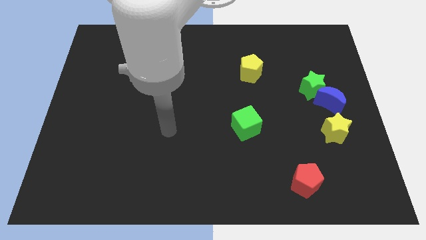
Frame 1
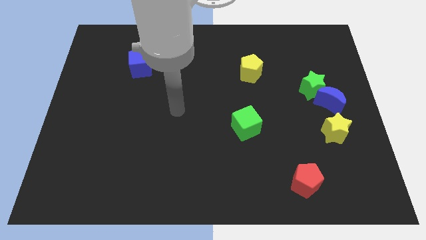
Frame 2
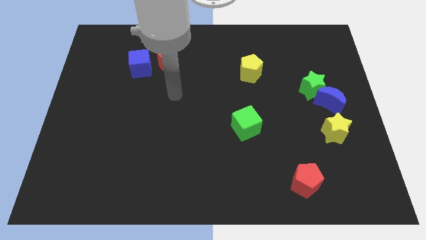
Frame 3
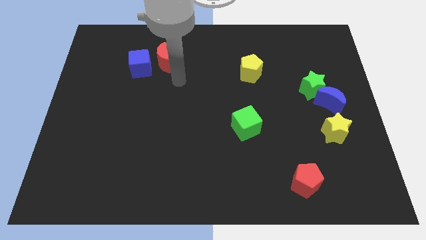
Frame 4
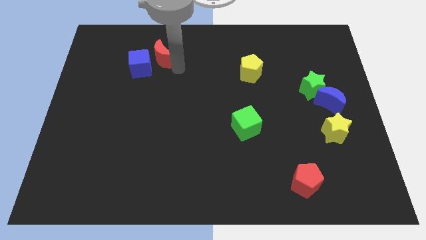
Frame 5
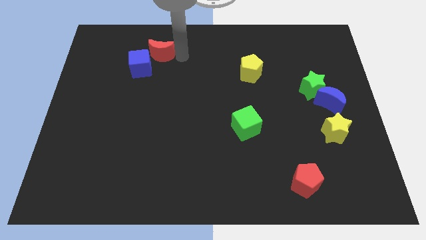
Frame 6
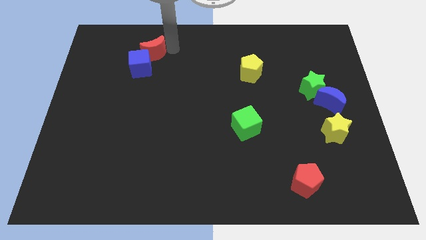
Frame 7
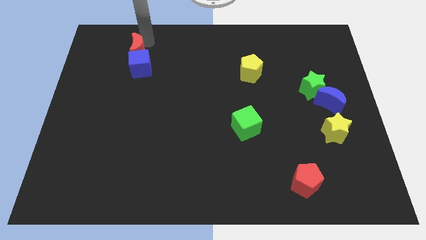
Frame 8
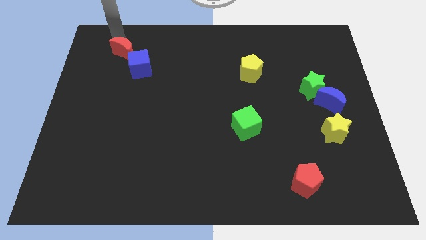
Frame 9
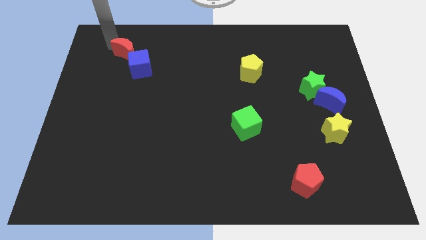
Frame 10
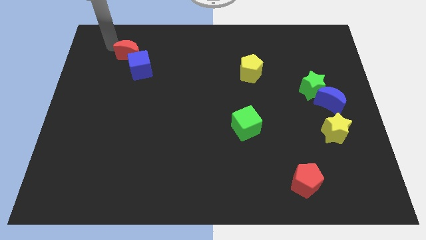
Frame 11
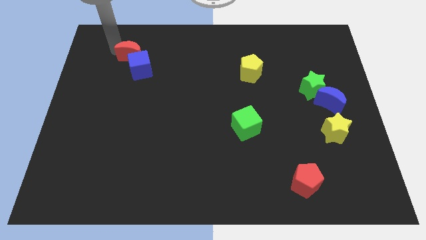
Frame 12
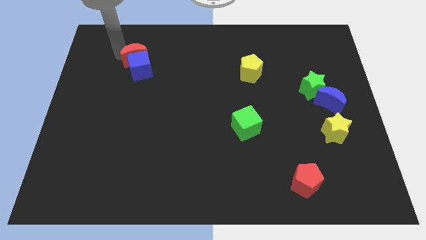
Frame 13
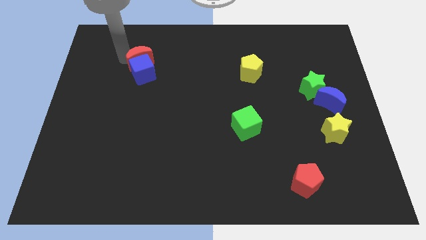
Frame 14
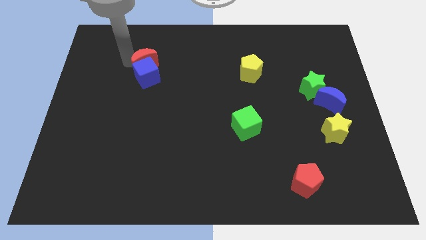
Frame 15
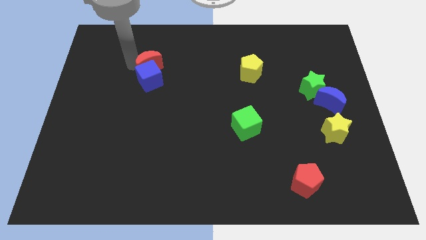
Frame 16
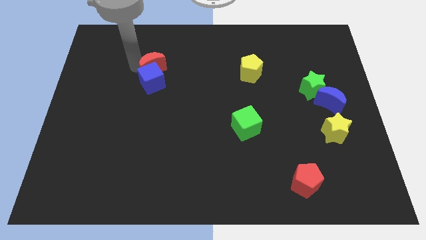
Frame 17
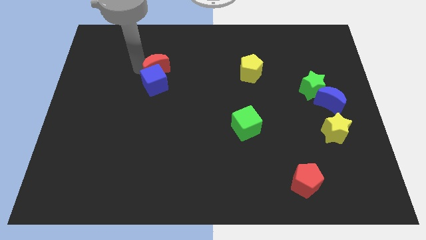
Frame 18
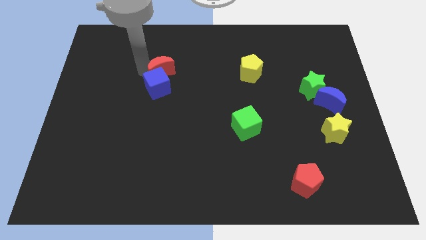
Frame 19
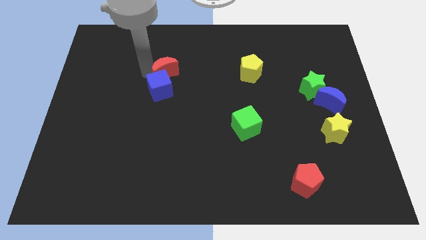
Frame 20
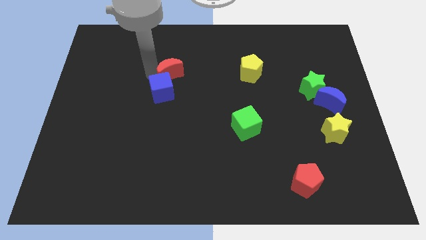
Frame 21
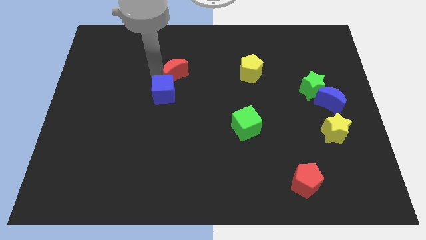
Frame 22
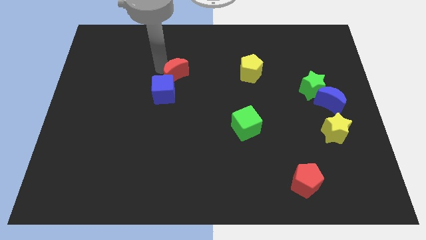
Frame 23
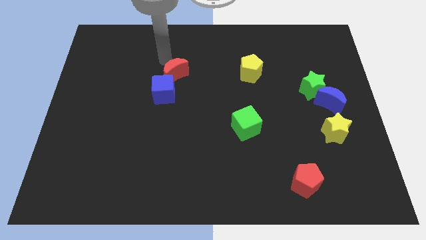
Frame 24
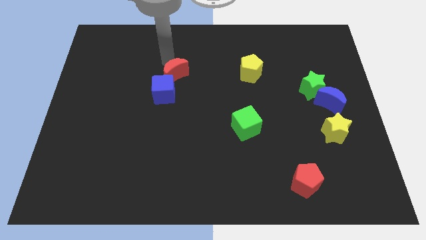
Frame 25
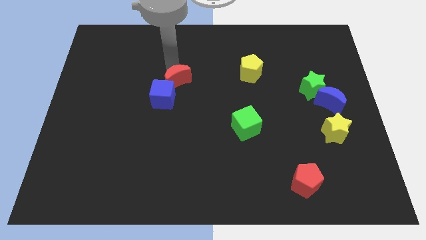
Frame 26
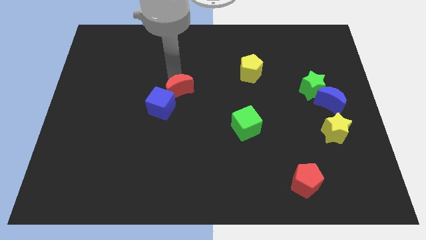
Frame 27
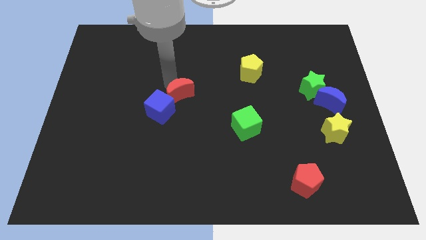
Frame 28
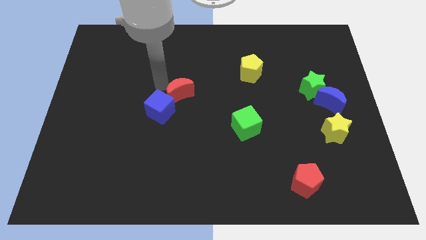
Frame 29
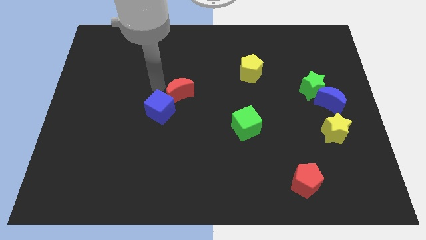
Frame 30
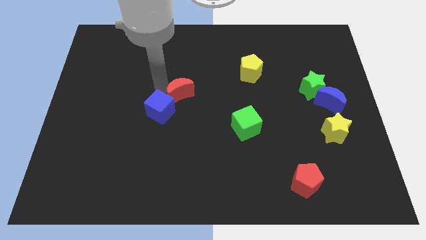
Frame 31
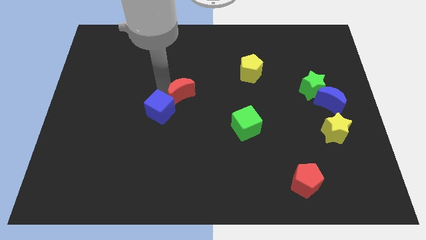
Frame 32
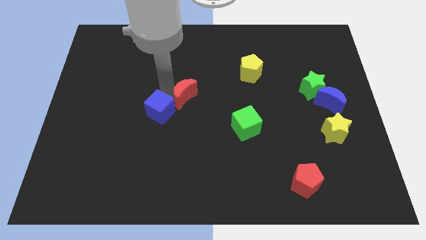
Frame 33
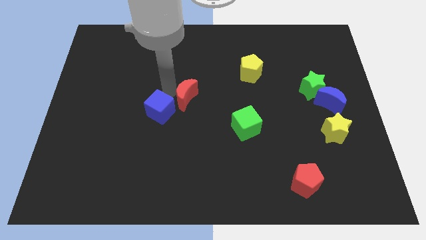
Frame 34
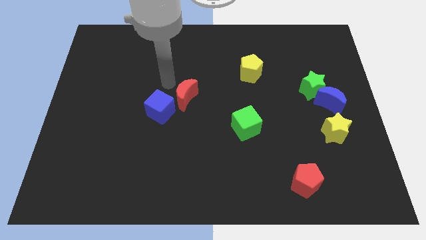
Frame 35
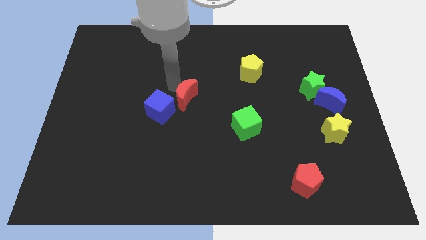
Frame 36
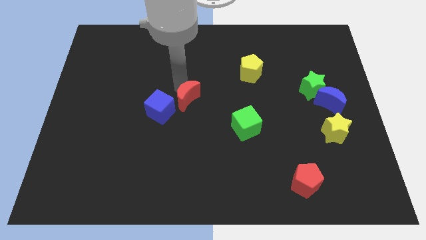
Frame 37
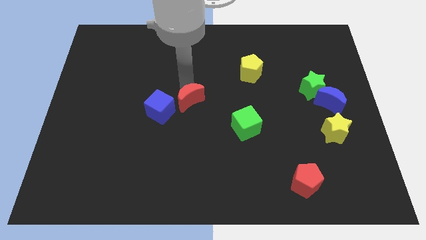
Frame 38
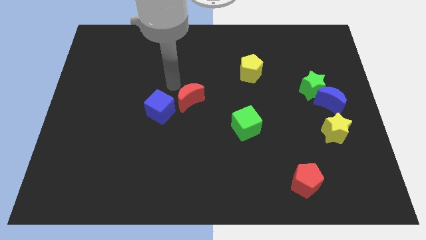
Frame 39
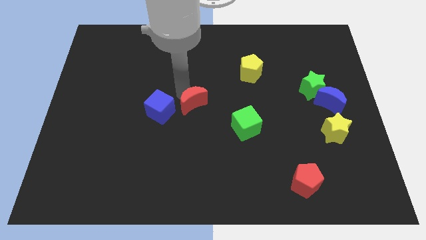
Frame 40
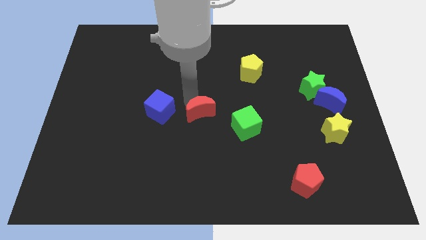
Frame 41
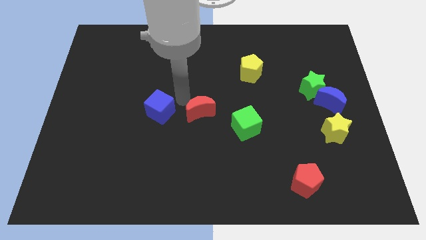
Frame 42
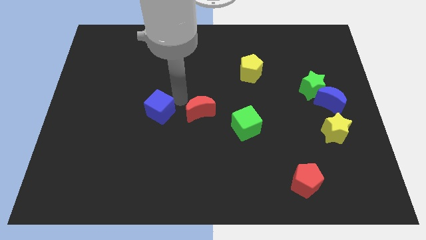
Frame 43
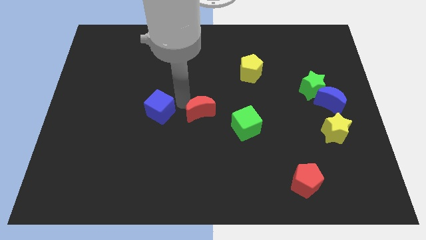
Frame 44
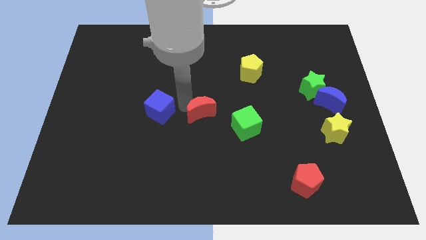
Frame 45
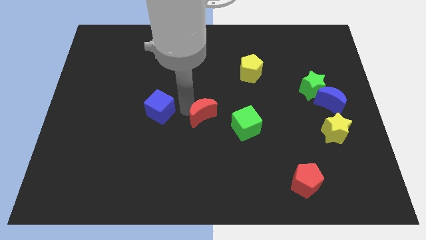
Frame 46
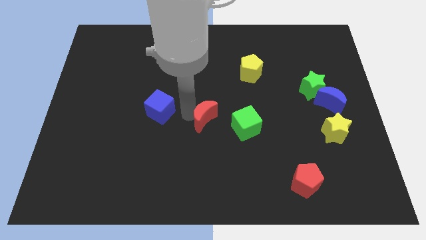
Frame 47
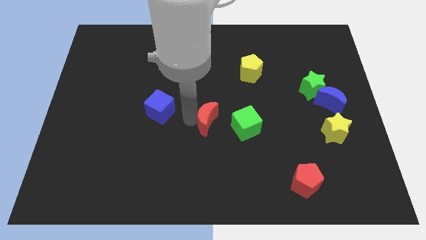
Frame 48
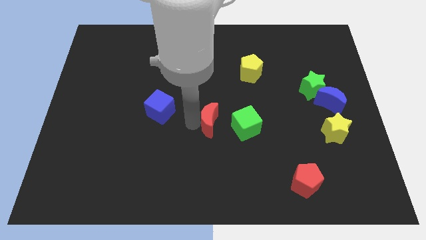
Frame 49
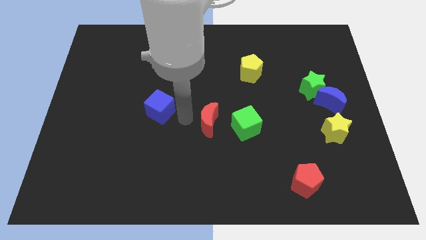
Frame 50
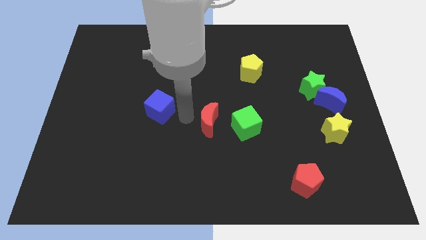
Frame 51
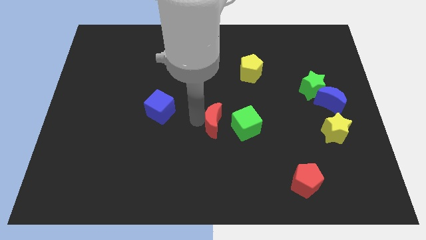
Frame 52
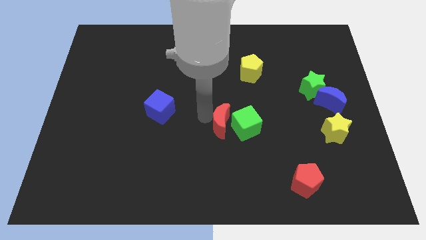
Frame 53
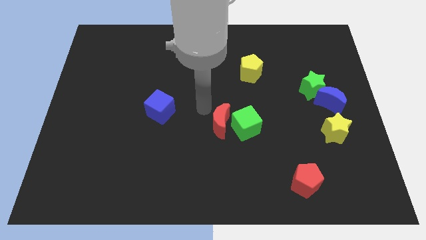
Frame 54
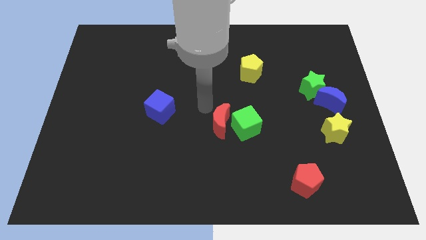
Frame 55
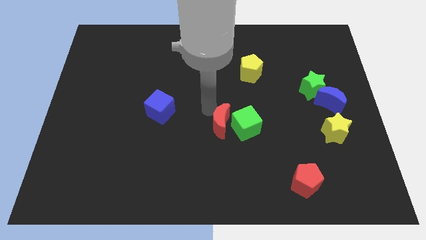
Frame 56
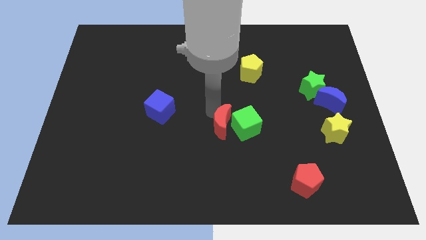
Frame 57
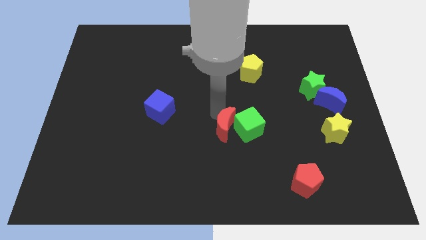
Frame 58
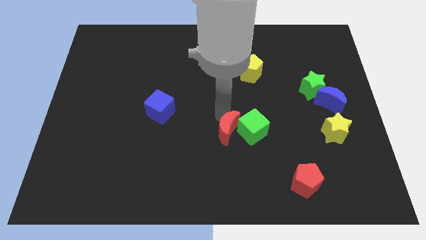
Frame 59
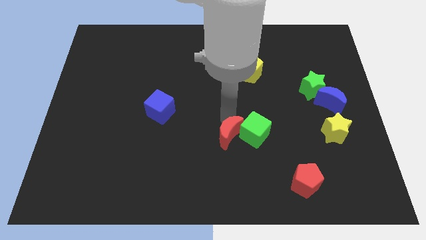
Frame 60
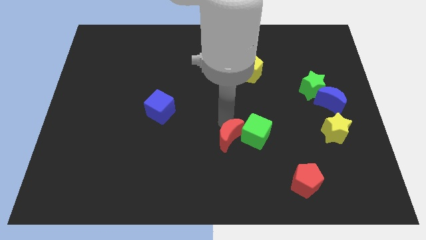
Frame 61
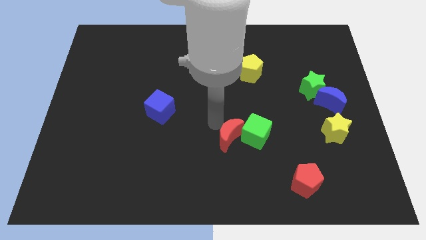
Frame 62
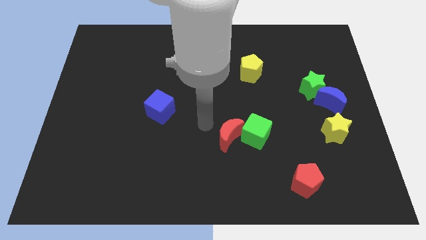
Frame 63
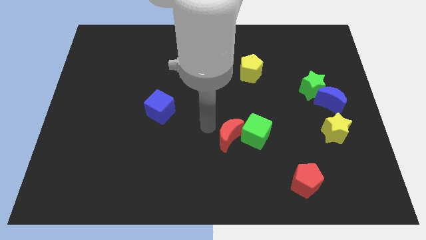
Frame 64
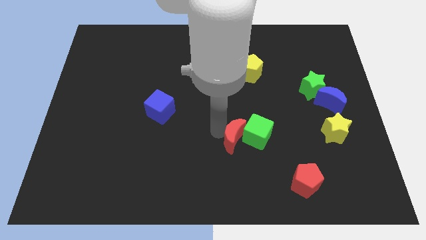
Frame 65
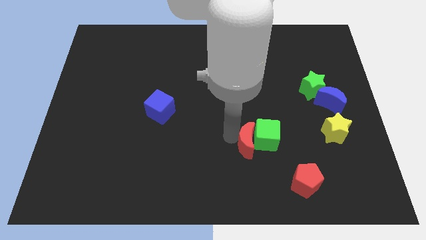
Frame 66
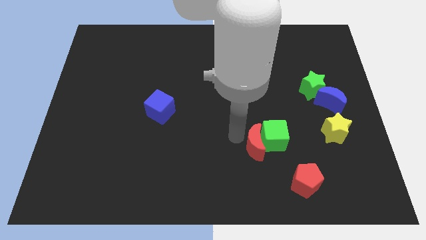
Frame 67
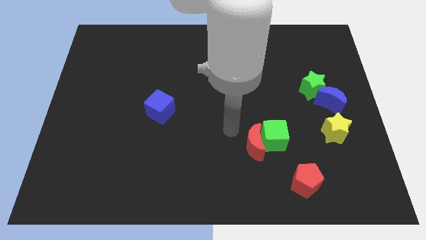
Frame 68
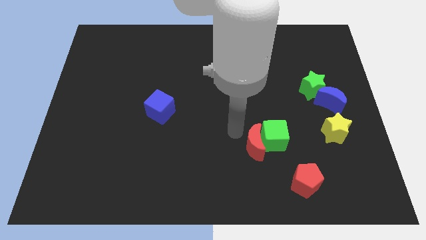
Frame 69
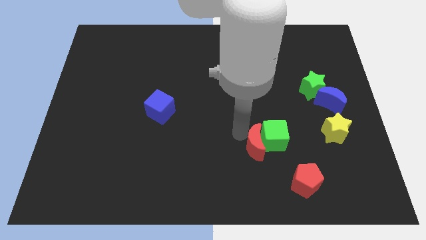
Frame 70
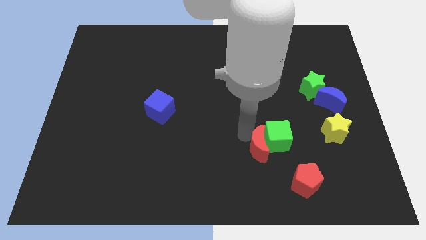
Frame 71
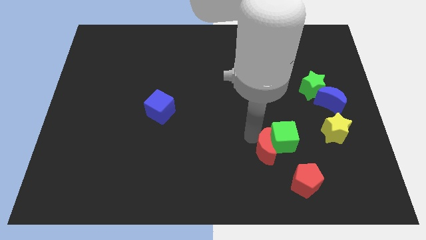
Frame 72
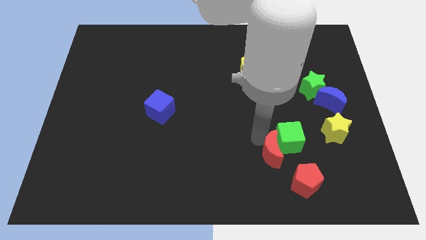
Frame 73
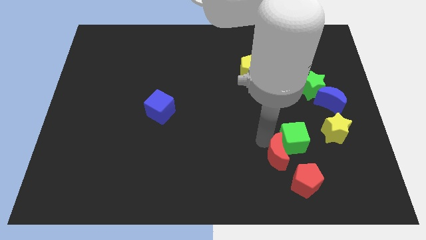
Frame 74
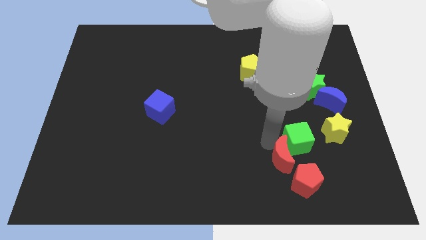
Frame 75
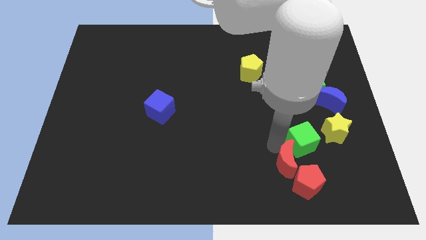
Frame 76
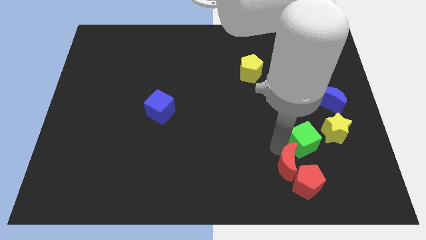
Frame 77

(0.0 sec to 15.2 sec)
slide the red moon towards the red pentagon
